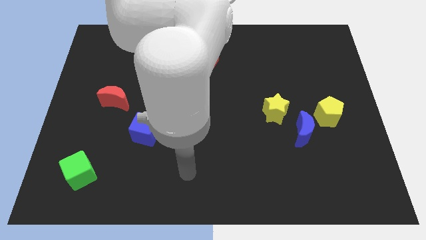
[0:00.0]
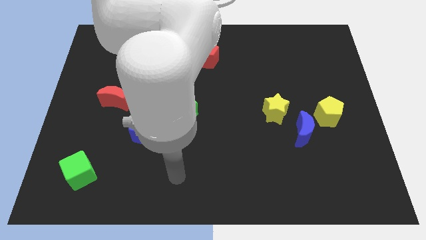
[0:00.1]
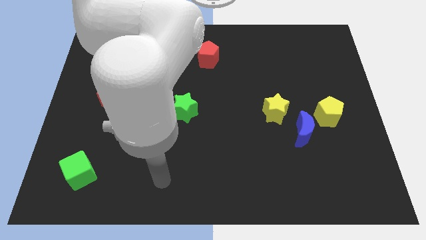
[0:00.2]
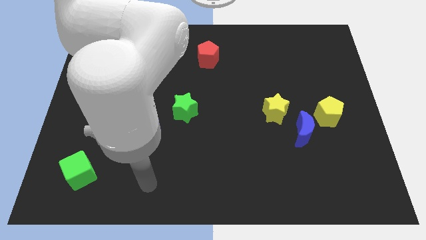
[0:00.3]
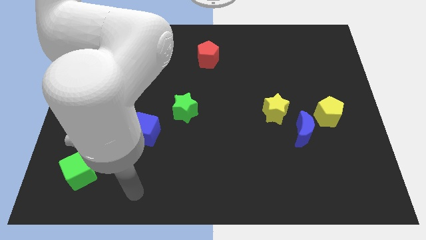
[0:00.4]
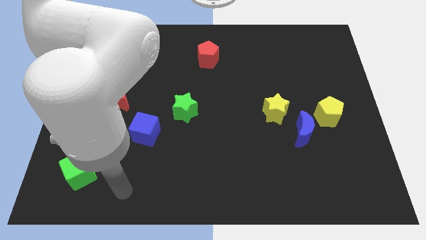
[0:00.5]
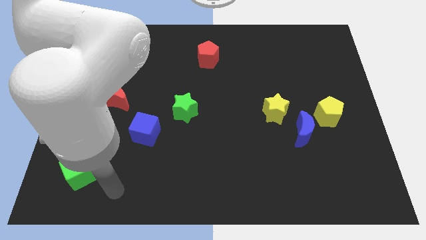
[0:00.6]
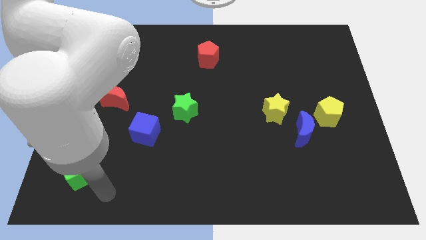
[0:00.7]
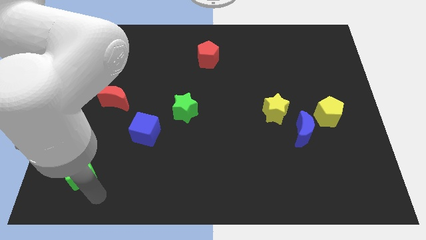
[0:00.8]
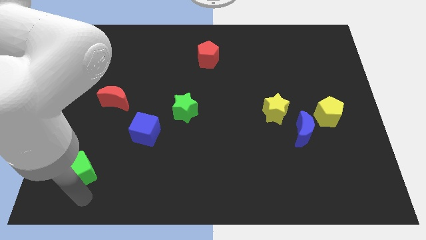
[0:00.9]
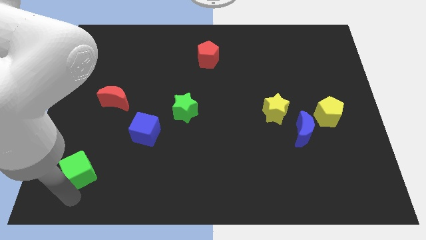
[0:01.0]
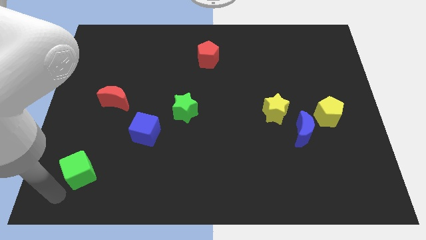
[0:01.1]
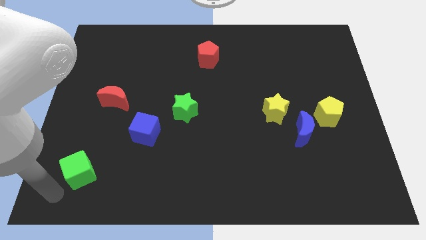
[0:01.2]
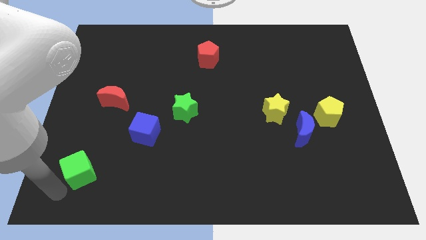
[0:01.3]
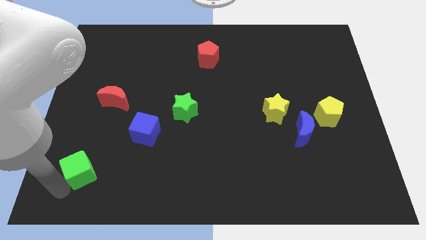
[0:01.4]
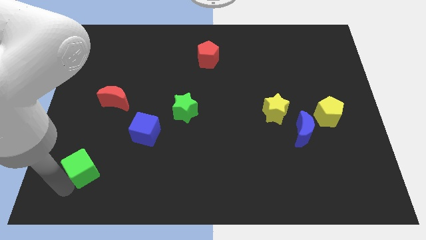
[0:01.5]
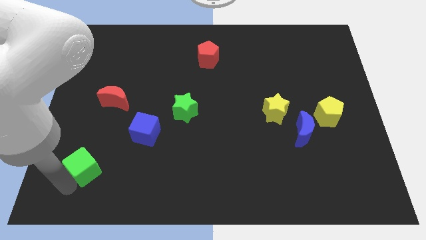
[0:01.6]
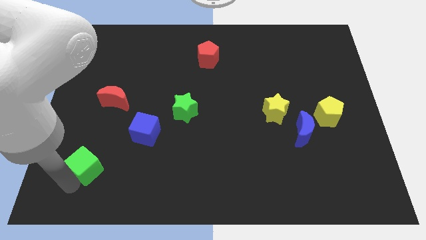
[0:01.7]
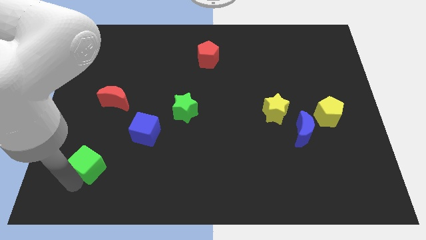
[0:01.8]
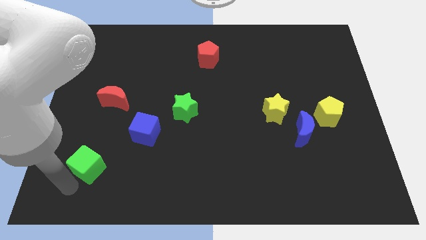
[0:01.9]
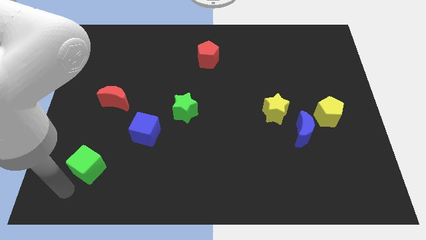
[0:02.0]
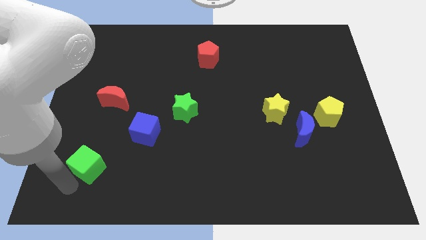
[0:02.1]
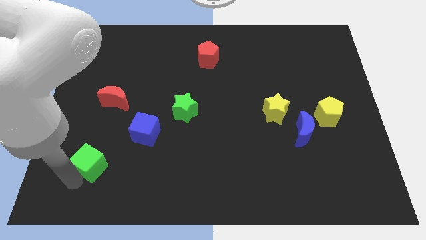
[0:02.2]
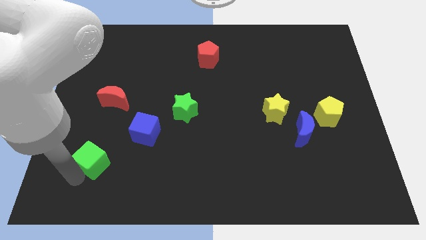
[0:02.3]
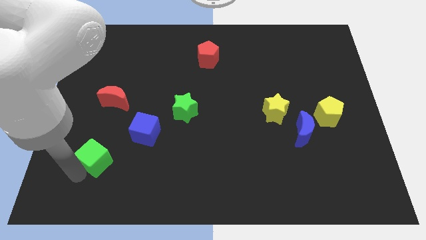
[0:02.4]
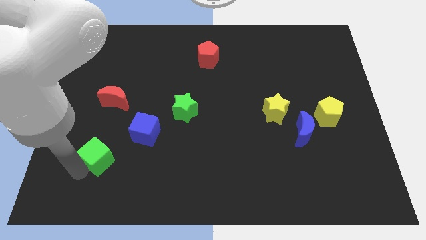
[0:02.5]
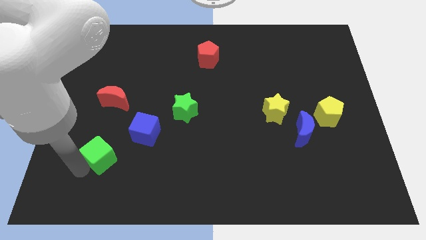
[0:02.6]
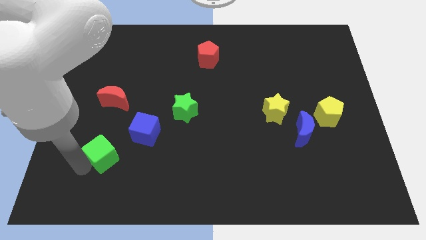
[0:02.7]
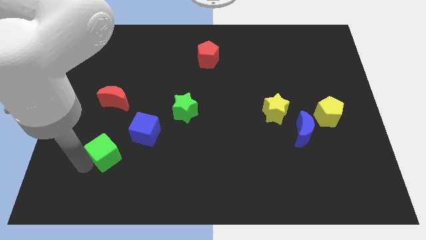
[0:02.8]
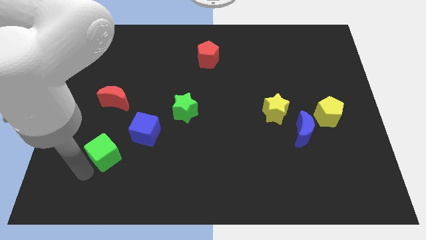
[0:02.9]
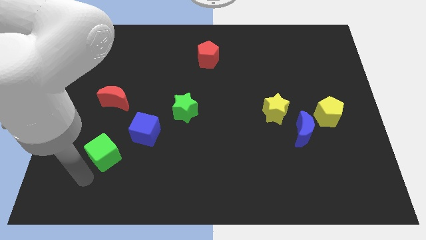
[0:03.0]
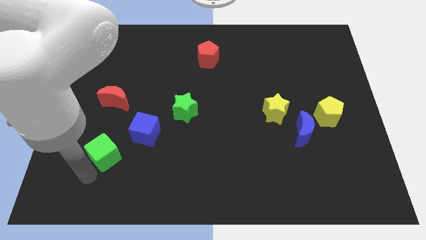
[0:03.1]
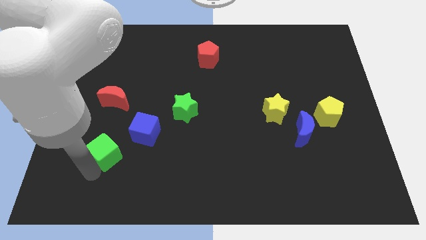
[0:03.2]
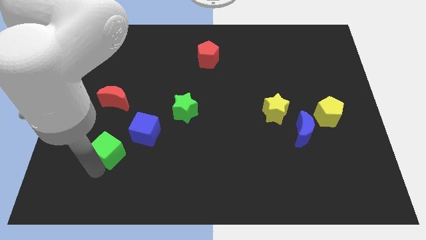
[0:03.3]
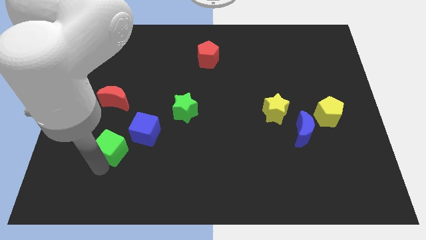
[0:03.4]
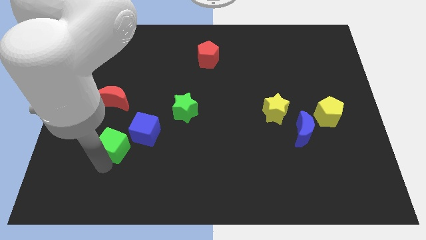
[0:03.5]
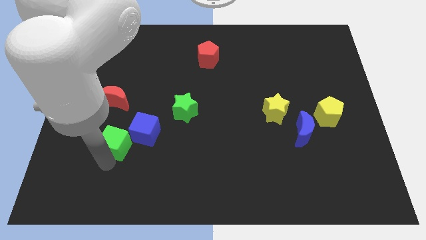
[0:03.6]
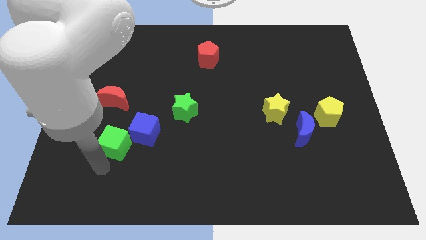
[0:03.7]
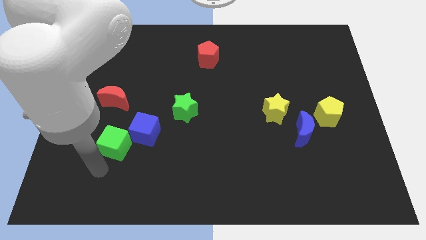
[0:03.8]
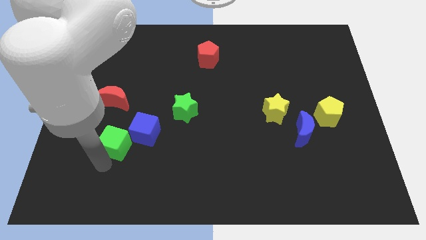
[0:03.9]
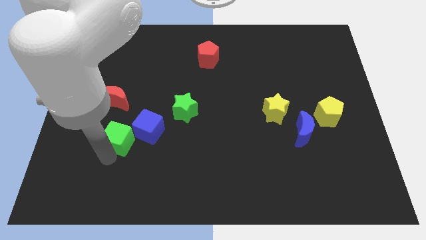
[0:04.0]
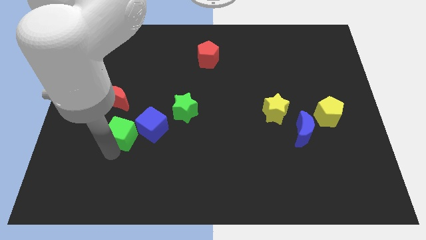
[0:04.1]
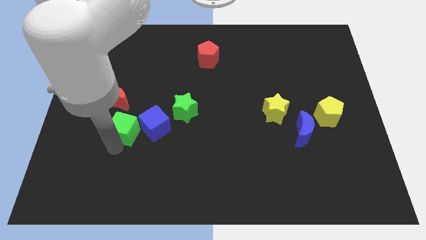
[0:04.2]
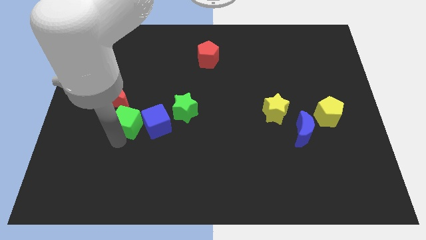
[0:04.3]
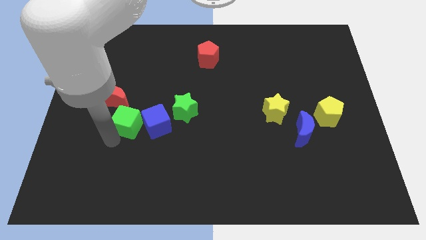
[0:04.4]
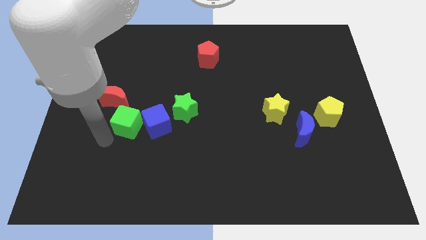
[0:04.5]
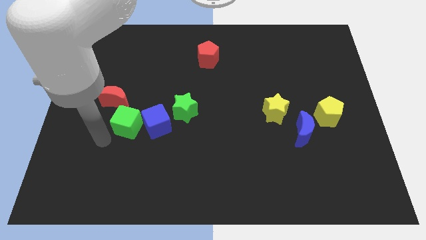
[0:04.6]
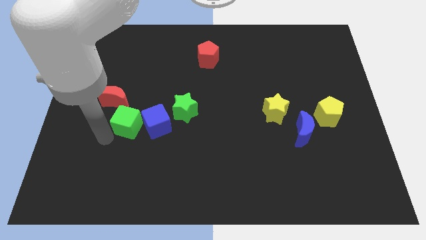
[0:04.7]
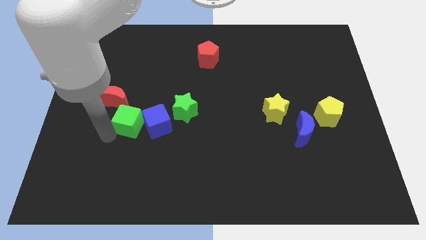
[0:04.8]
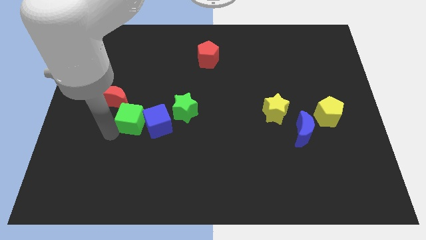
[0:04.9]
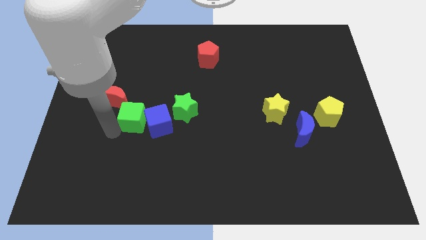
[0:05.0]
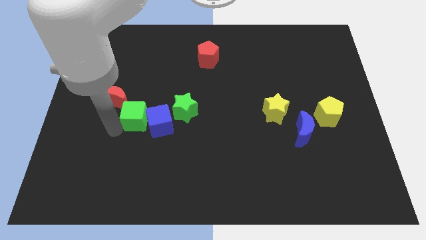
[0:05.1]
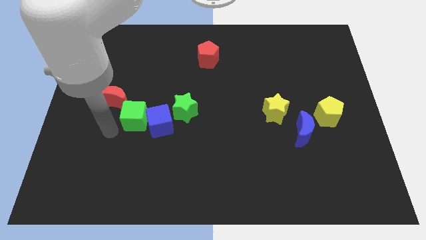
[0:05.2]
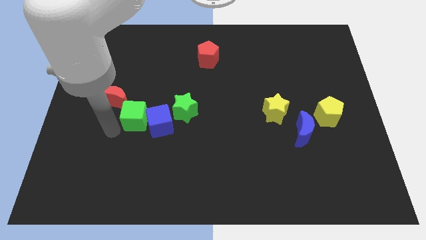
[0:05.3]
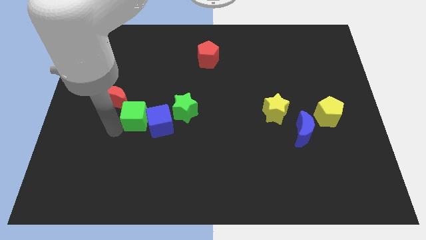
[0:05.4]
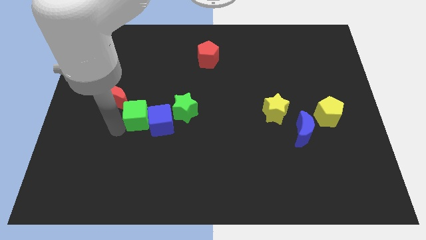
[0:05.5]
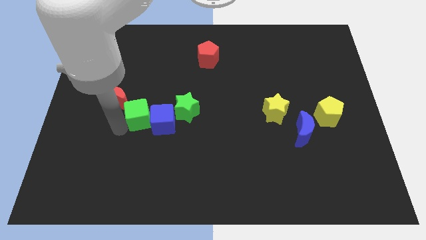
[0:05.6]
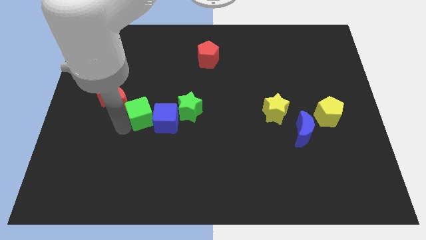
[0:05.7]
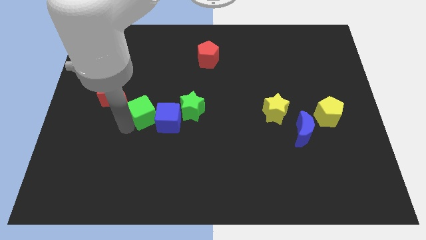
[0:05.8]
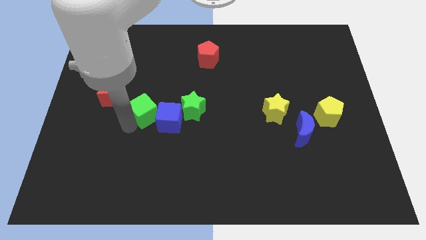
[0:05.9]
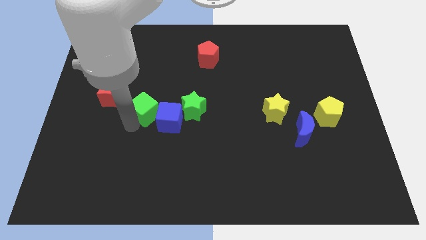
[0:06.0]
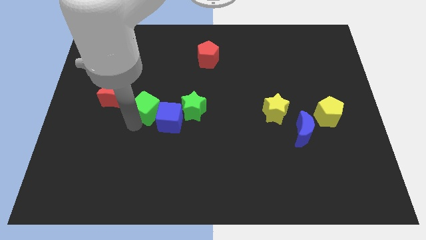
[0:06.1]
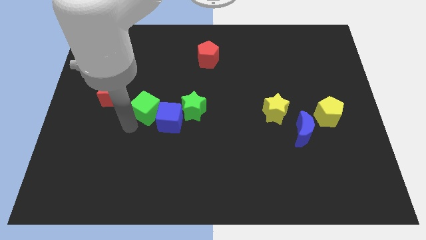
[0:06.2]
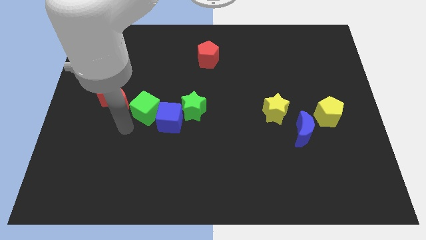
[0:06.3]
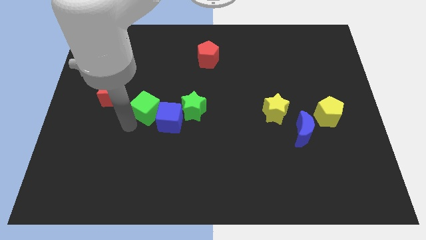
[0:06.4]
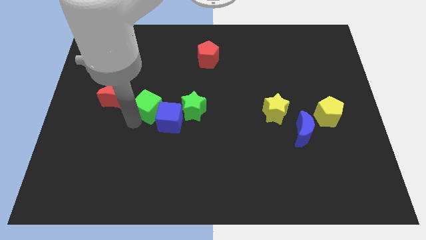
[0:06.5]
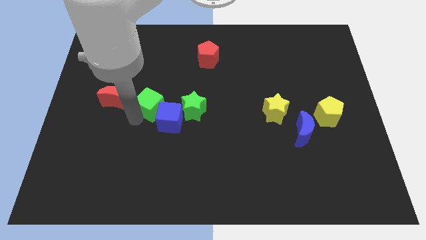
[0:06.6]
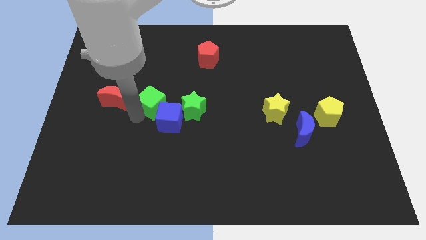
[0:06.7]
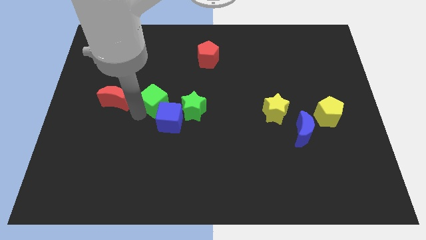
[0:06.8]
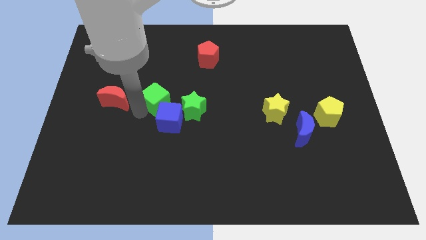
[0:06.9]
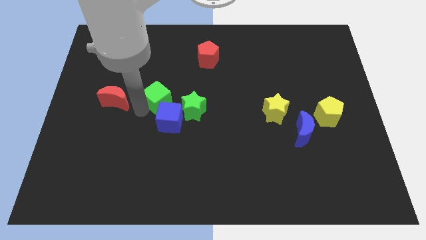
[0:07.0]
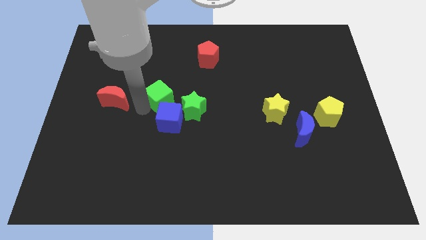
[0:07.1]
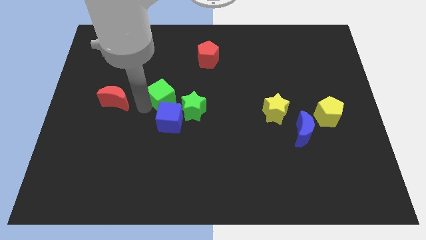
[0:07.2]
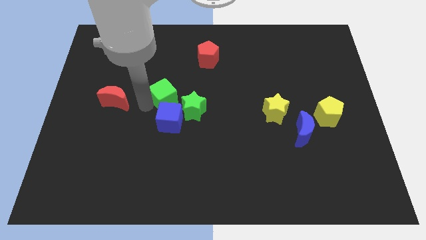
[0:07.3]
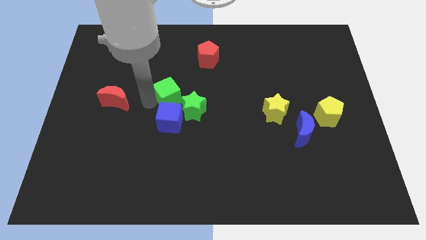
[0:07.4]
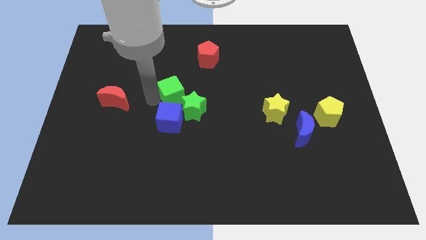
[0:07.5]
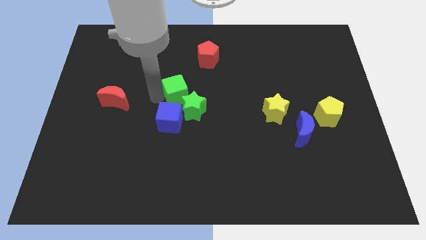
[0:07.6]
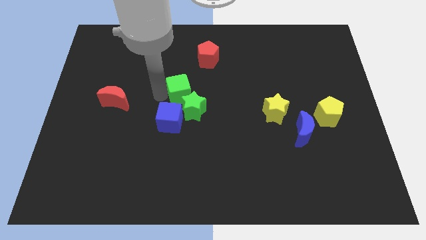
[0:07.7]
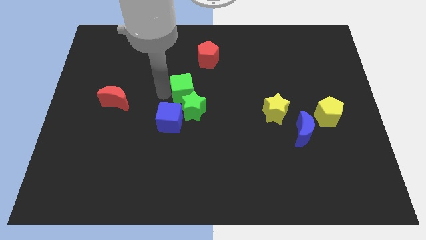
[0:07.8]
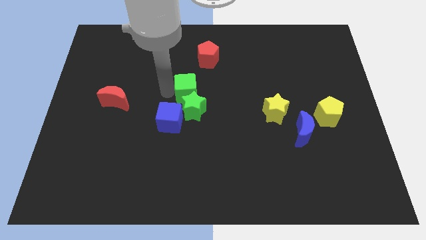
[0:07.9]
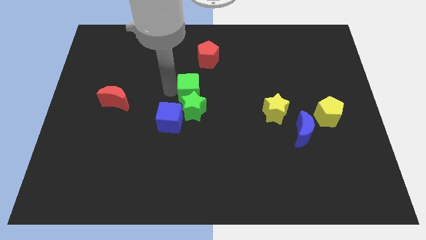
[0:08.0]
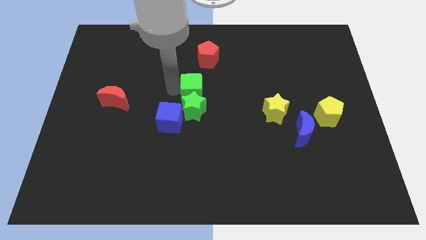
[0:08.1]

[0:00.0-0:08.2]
slide the green cube to the top right of the green star
